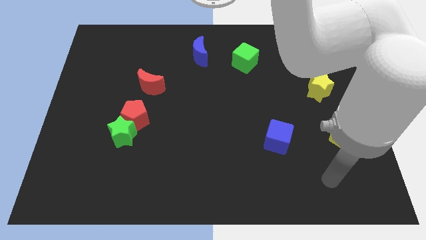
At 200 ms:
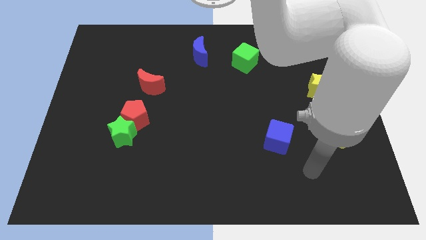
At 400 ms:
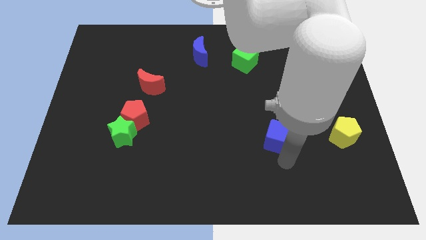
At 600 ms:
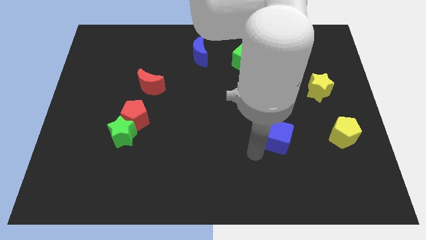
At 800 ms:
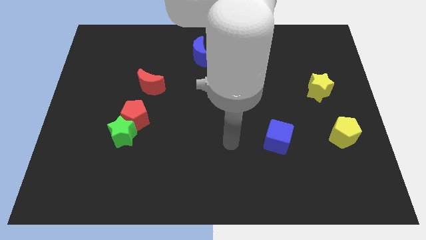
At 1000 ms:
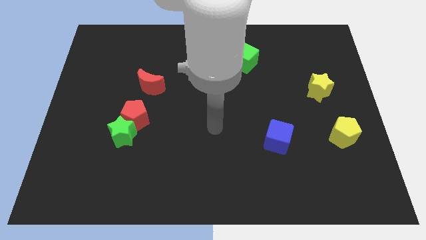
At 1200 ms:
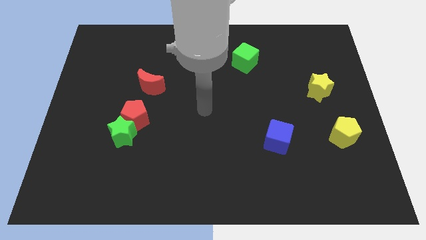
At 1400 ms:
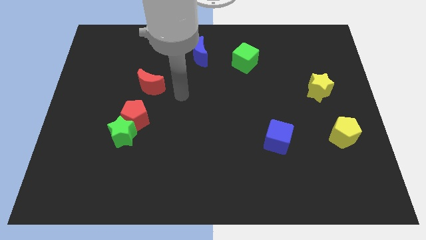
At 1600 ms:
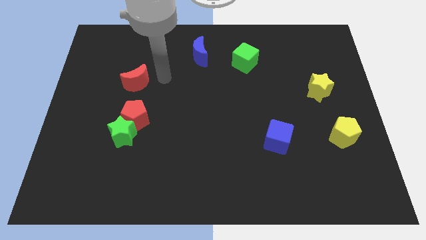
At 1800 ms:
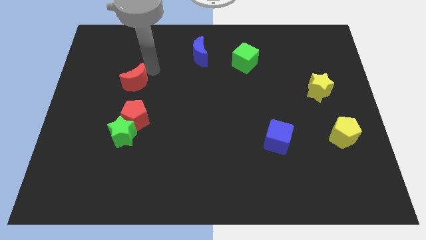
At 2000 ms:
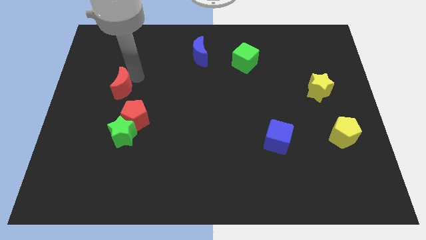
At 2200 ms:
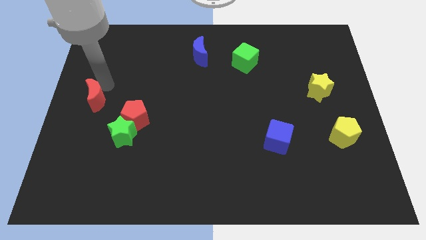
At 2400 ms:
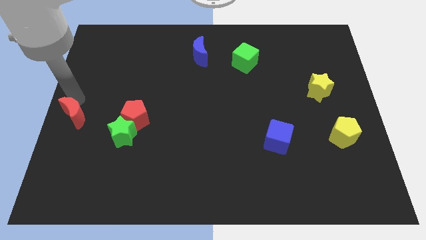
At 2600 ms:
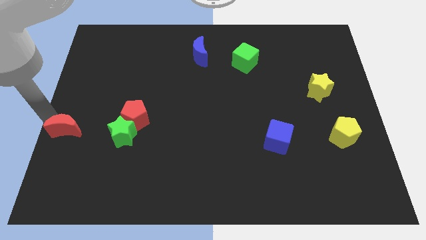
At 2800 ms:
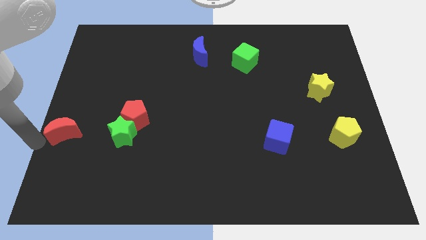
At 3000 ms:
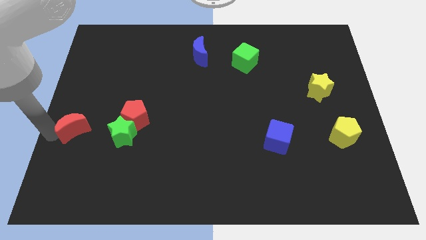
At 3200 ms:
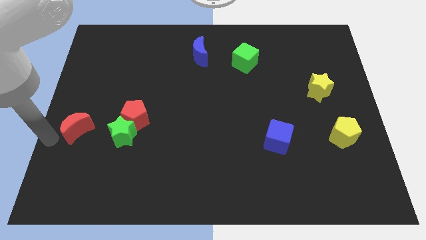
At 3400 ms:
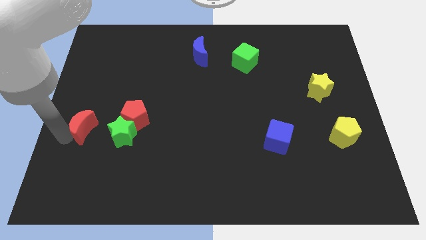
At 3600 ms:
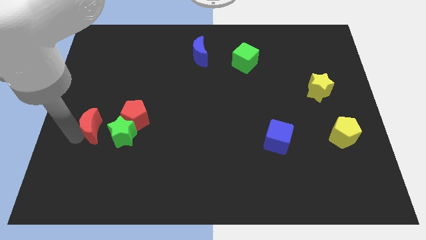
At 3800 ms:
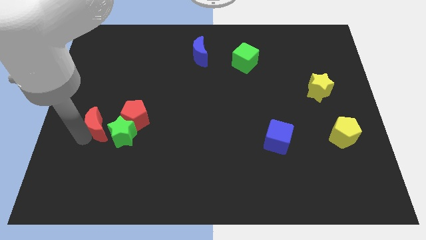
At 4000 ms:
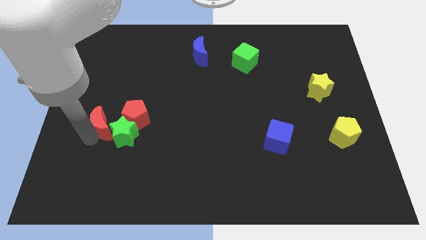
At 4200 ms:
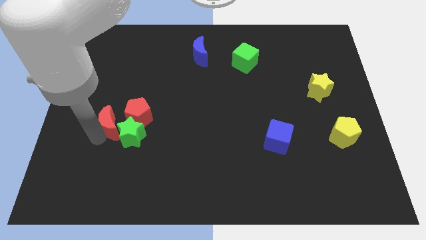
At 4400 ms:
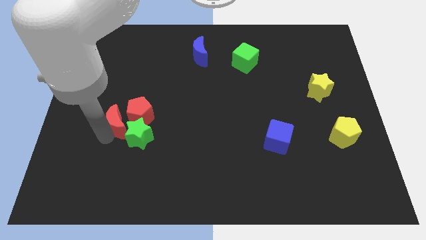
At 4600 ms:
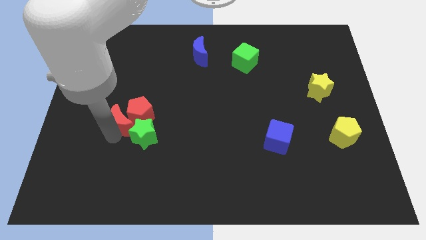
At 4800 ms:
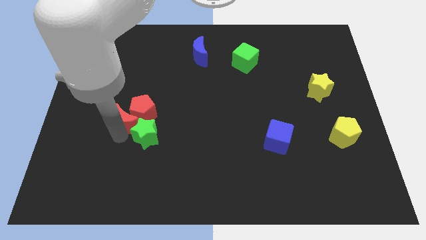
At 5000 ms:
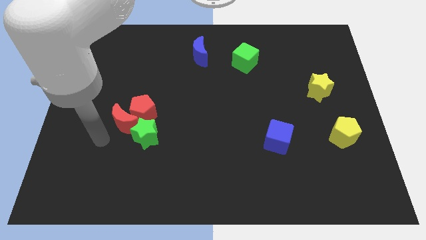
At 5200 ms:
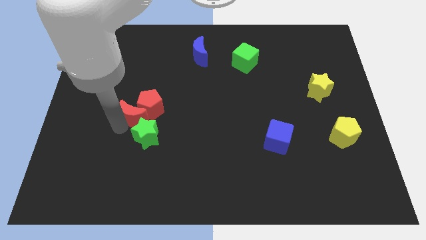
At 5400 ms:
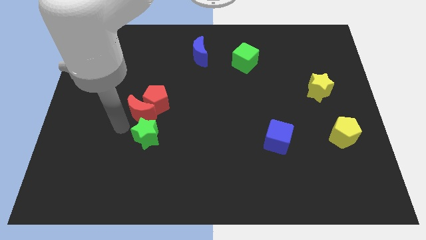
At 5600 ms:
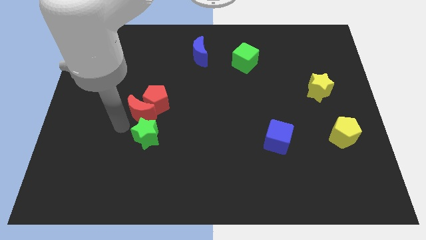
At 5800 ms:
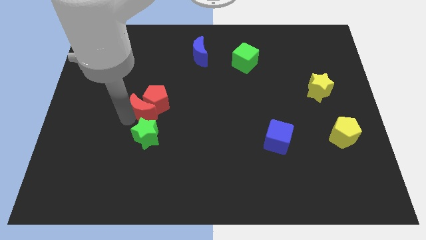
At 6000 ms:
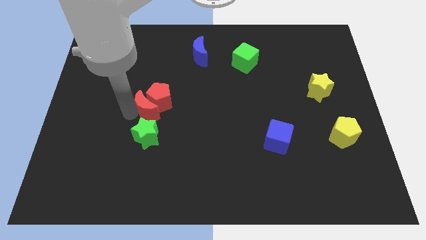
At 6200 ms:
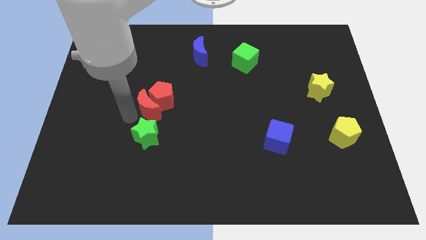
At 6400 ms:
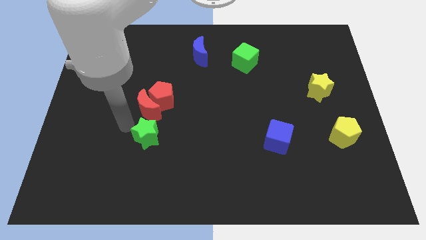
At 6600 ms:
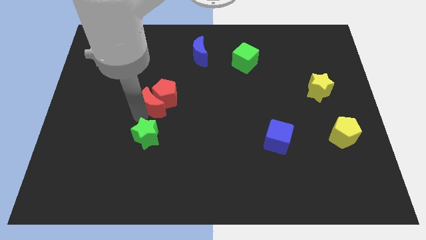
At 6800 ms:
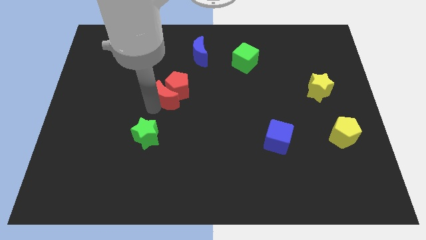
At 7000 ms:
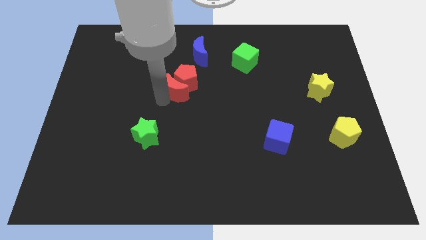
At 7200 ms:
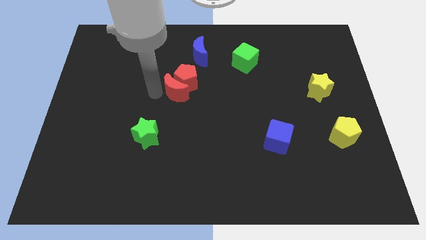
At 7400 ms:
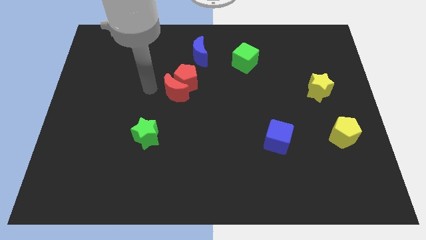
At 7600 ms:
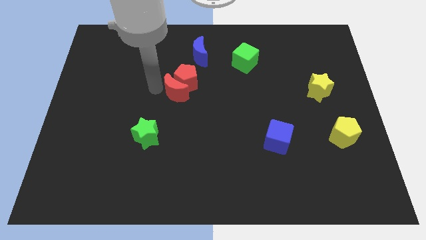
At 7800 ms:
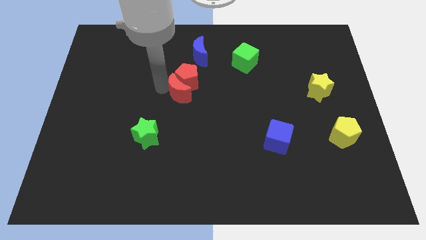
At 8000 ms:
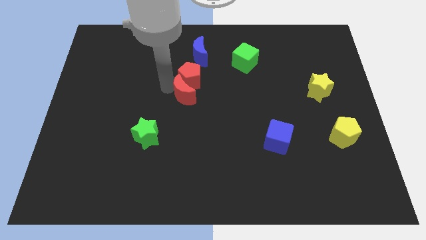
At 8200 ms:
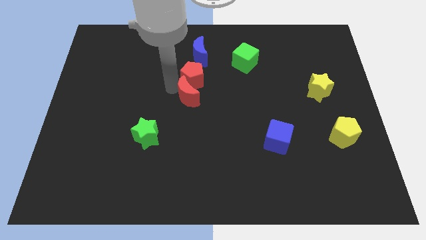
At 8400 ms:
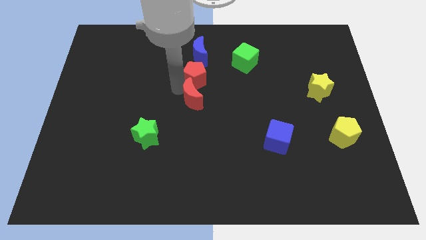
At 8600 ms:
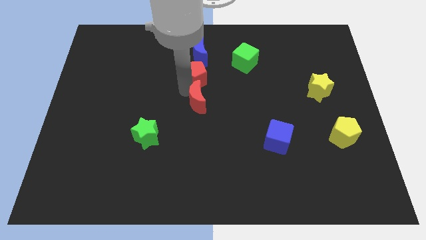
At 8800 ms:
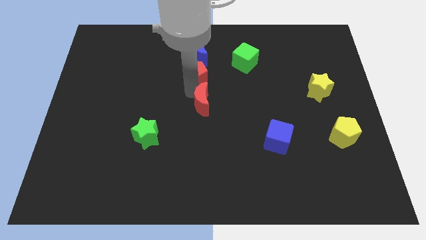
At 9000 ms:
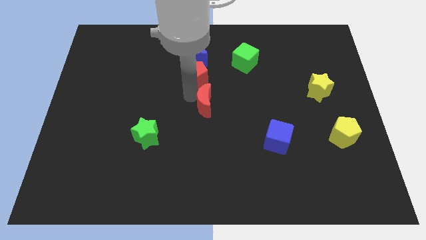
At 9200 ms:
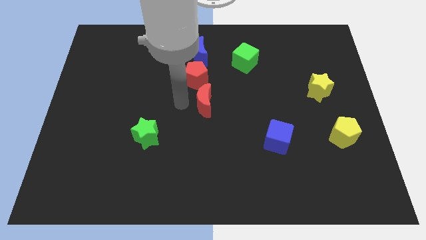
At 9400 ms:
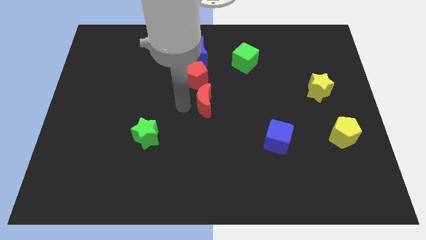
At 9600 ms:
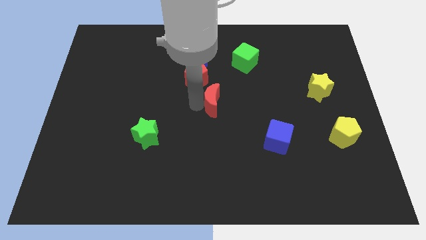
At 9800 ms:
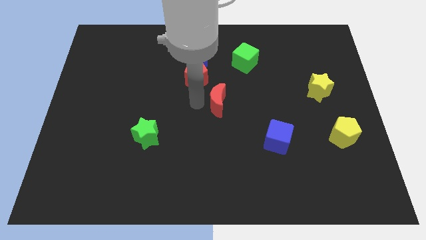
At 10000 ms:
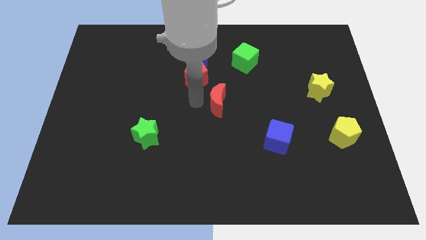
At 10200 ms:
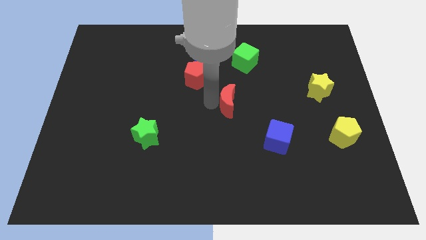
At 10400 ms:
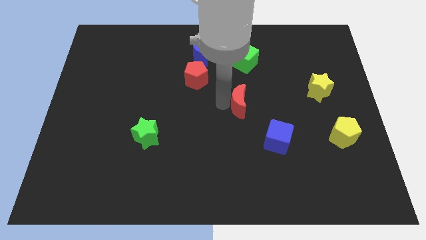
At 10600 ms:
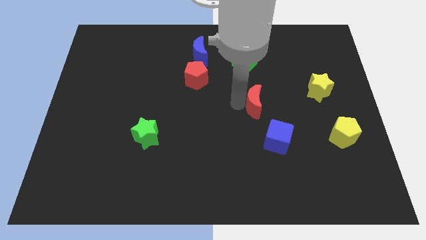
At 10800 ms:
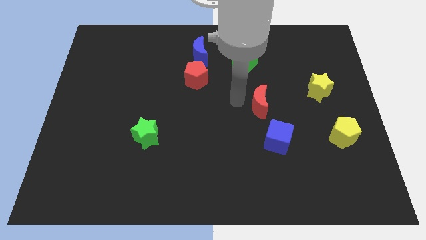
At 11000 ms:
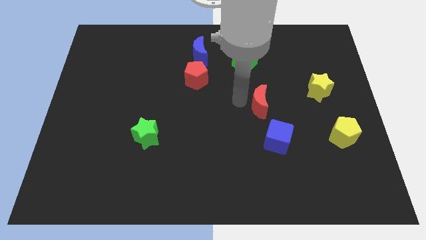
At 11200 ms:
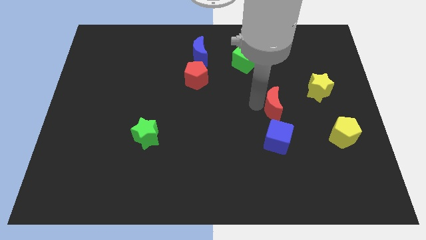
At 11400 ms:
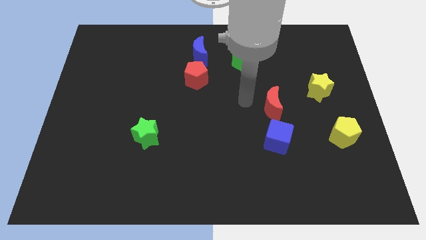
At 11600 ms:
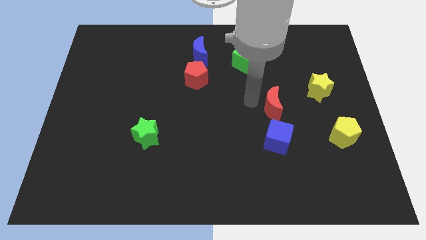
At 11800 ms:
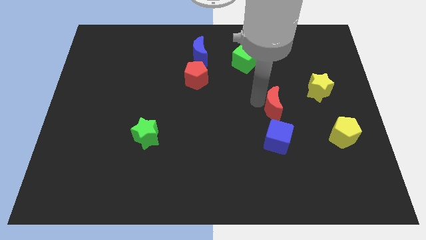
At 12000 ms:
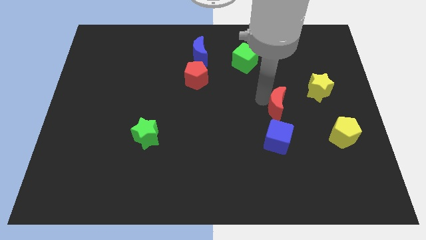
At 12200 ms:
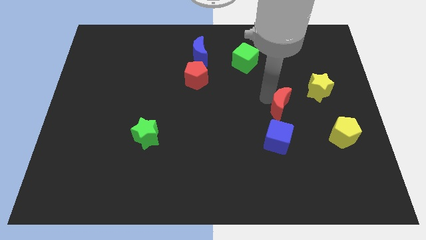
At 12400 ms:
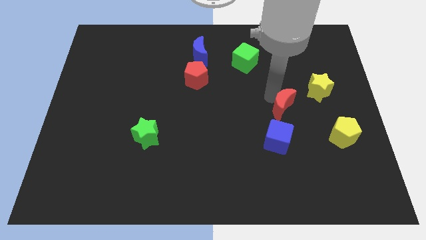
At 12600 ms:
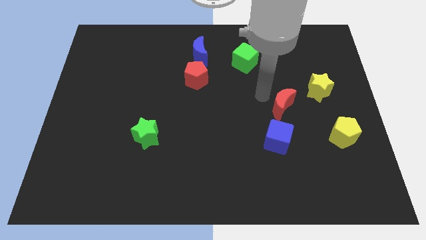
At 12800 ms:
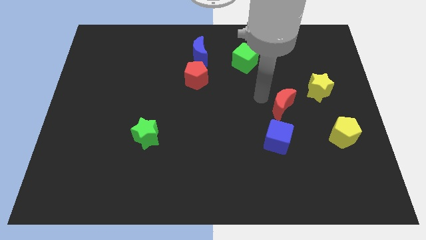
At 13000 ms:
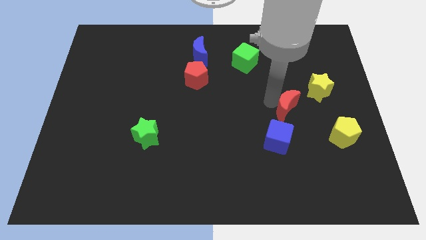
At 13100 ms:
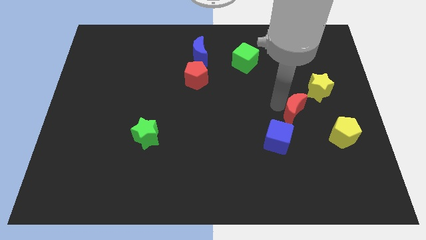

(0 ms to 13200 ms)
push the red moon to the top left of the yellow pentagon

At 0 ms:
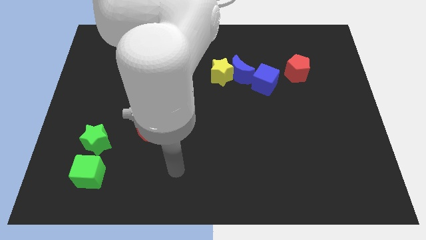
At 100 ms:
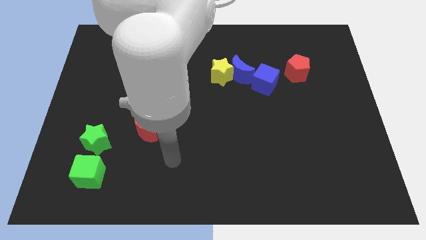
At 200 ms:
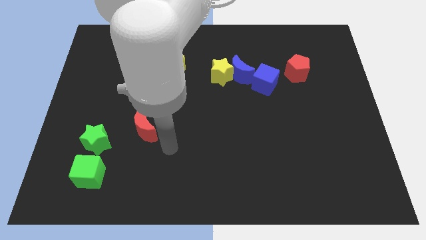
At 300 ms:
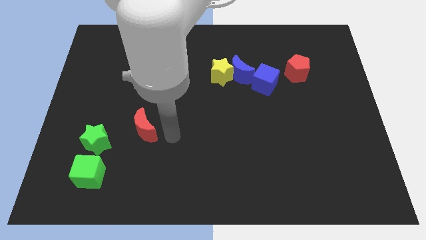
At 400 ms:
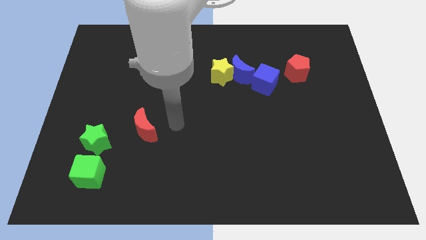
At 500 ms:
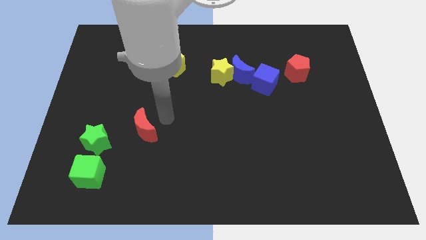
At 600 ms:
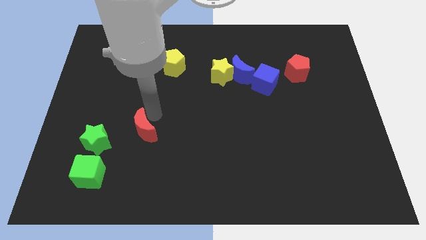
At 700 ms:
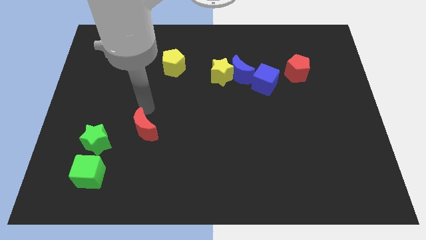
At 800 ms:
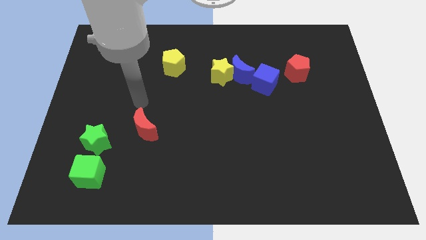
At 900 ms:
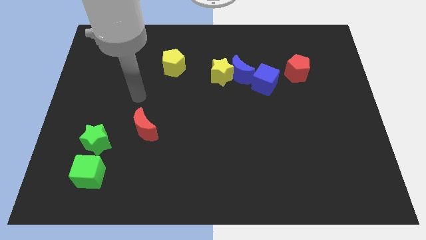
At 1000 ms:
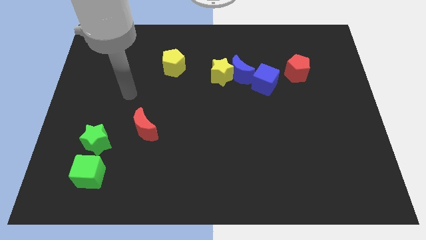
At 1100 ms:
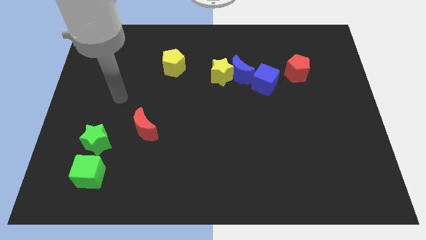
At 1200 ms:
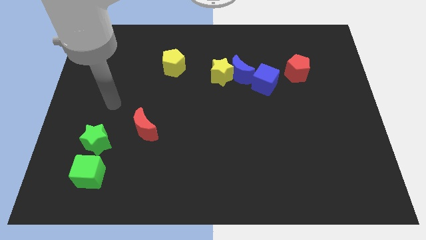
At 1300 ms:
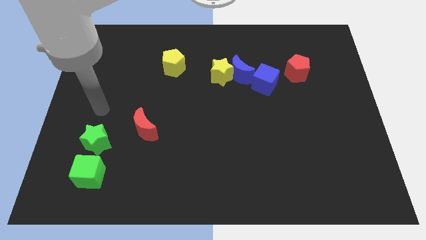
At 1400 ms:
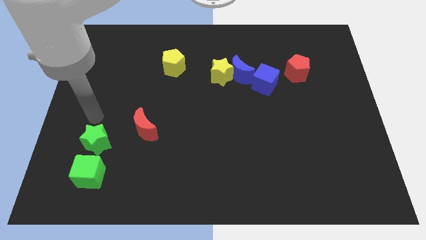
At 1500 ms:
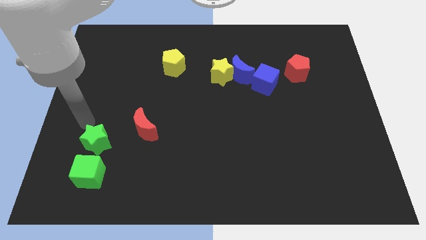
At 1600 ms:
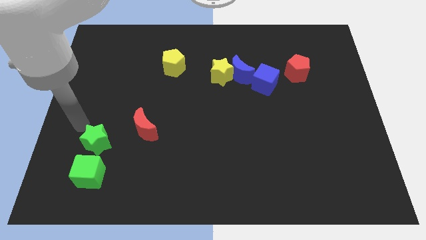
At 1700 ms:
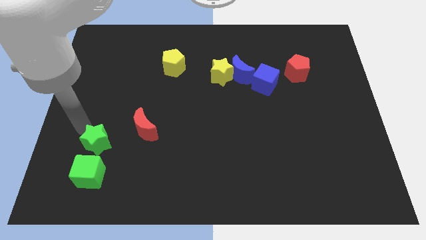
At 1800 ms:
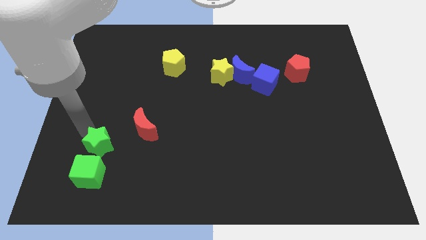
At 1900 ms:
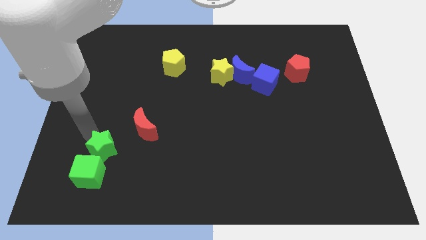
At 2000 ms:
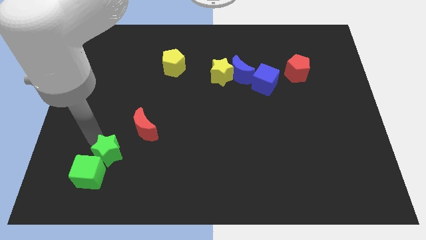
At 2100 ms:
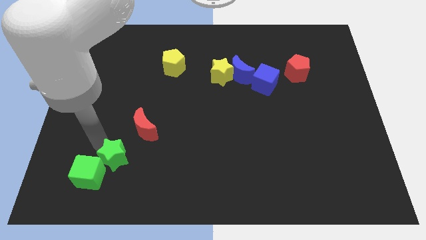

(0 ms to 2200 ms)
slide the green star to the right of the green cube
